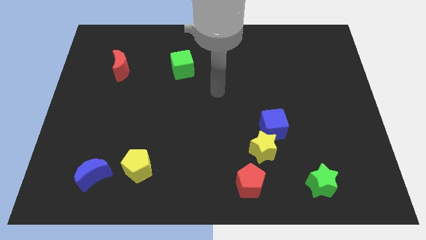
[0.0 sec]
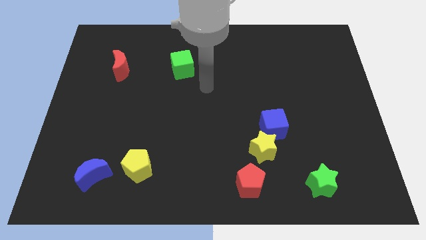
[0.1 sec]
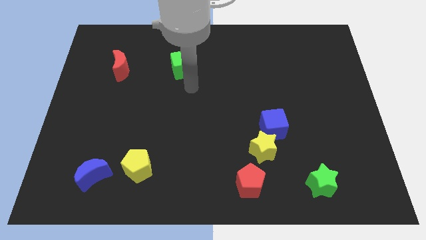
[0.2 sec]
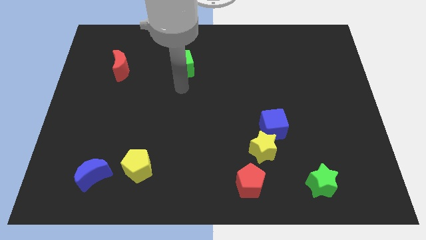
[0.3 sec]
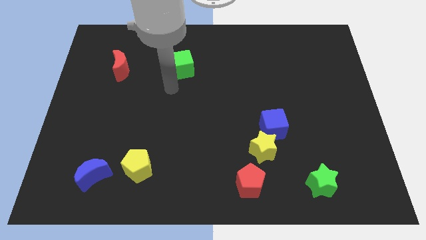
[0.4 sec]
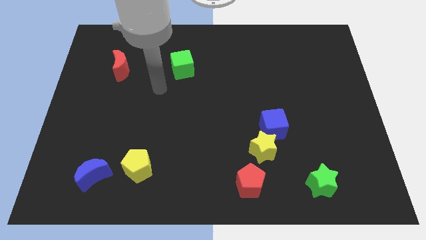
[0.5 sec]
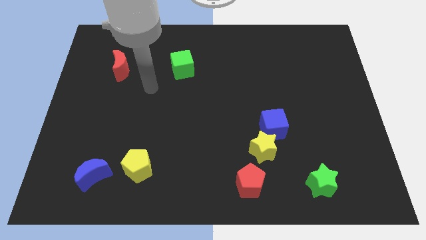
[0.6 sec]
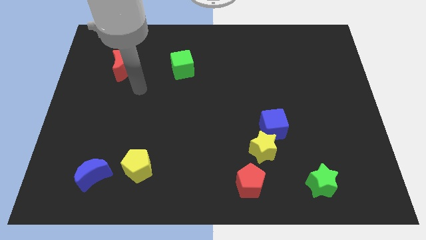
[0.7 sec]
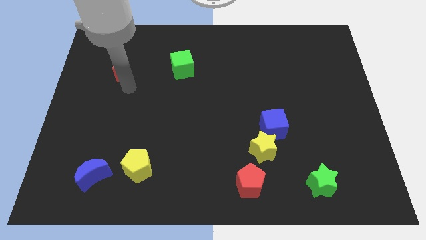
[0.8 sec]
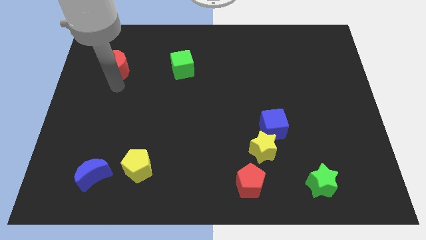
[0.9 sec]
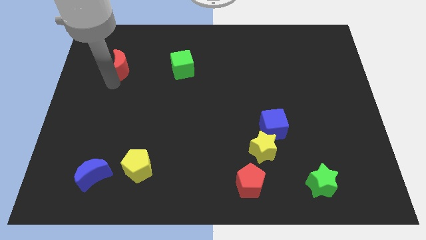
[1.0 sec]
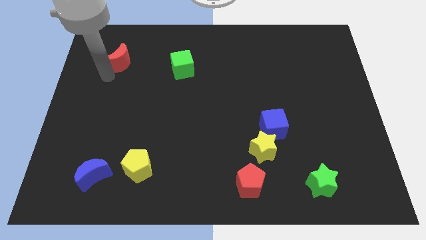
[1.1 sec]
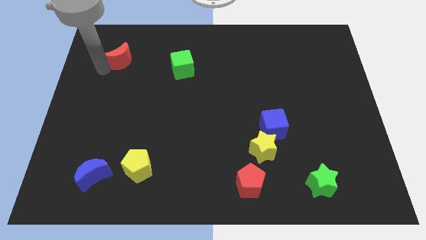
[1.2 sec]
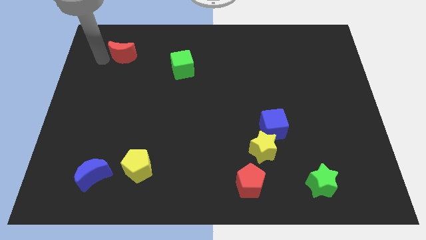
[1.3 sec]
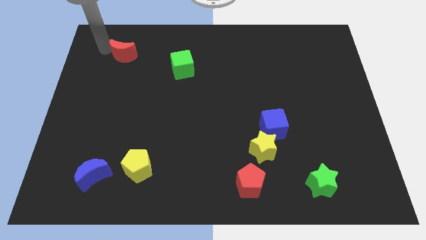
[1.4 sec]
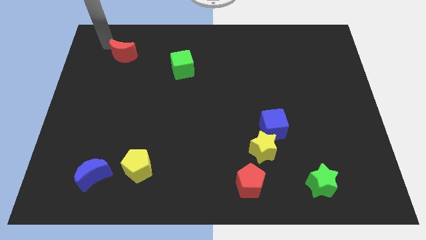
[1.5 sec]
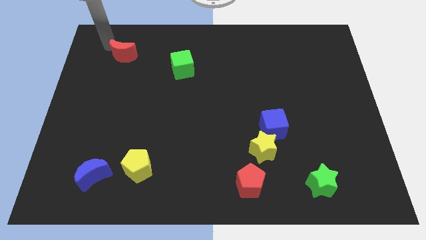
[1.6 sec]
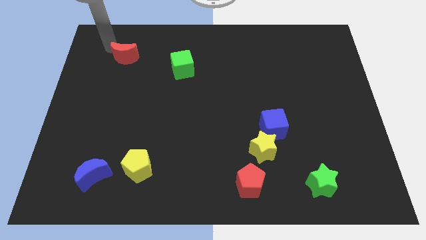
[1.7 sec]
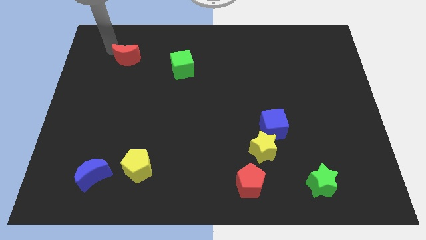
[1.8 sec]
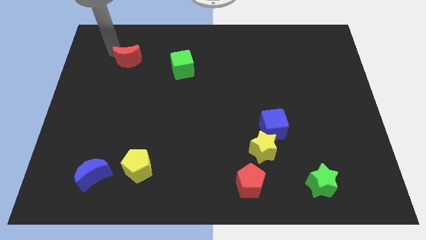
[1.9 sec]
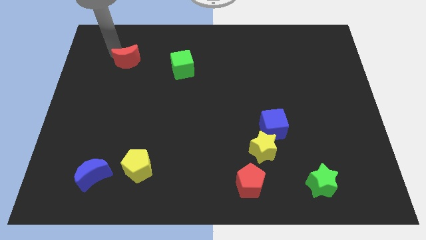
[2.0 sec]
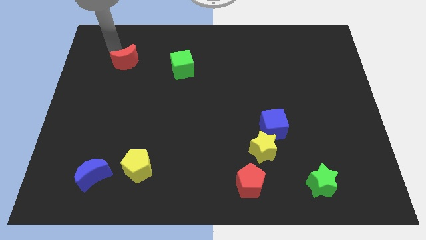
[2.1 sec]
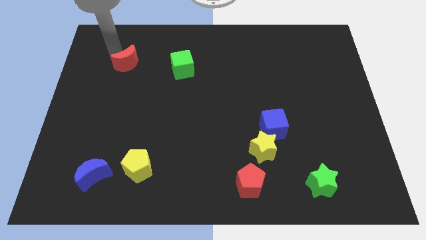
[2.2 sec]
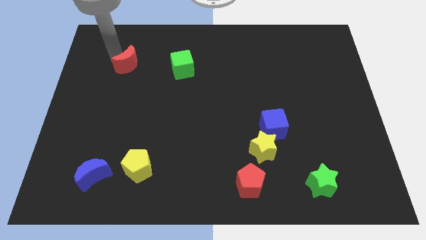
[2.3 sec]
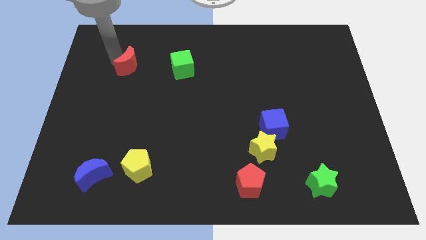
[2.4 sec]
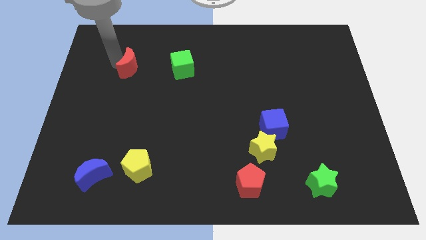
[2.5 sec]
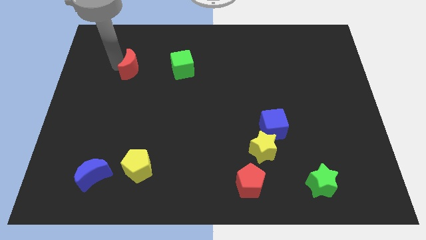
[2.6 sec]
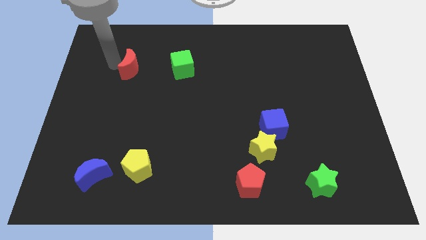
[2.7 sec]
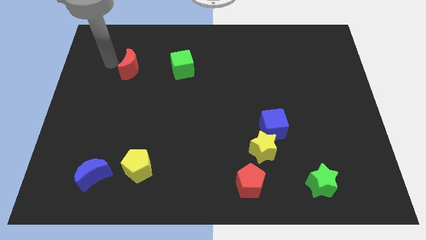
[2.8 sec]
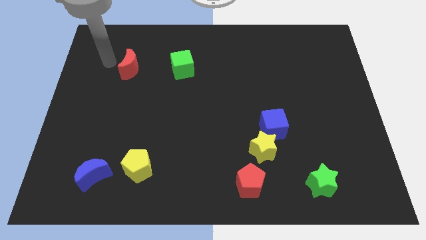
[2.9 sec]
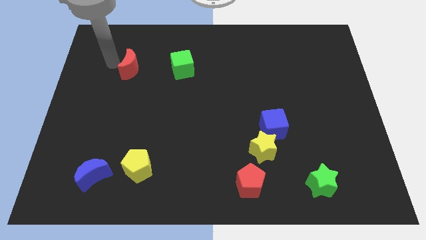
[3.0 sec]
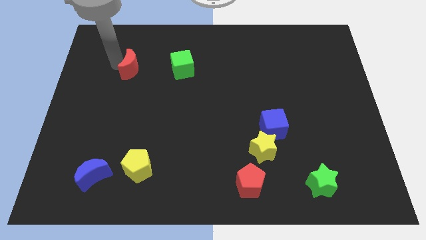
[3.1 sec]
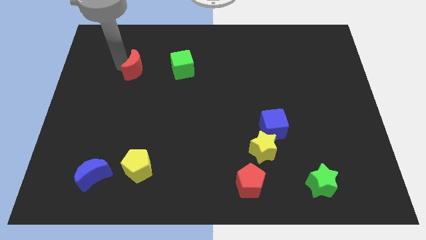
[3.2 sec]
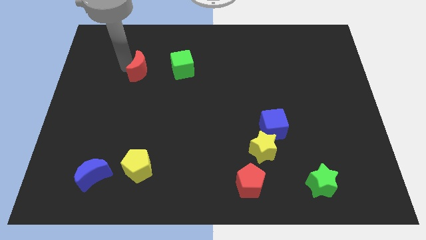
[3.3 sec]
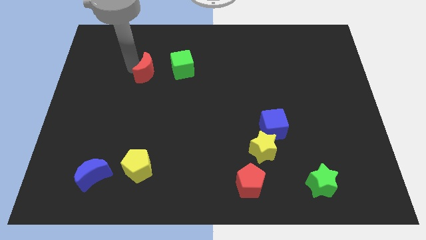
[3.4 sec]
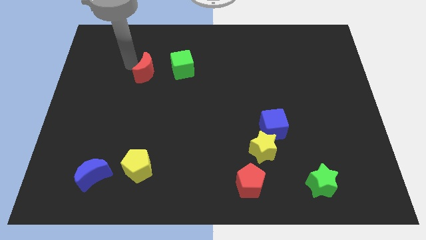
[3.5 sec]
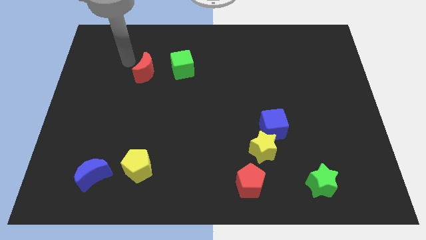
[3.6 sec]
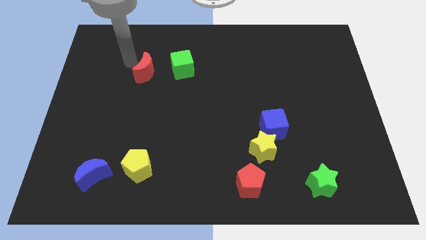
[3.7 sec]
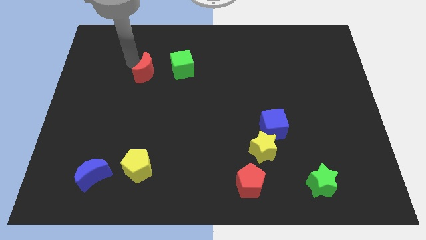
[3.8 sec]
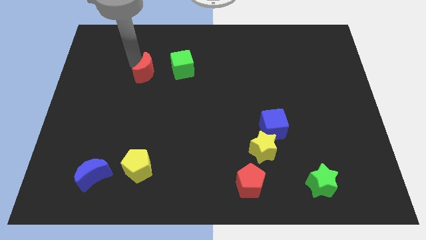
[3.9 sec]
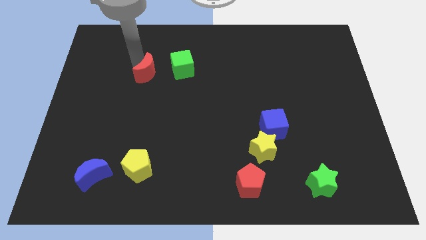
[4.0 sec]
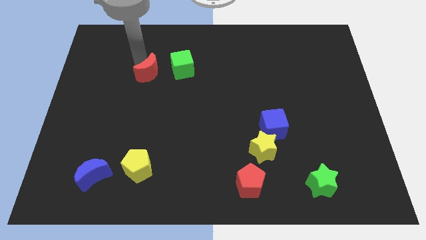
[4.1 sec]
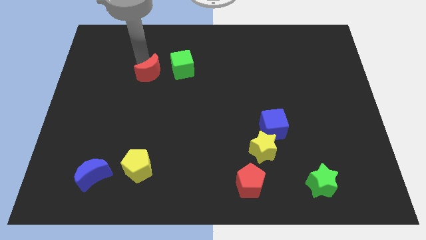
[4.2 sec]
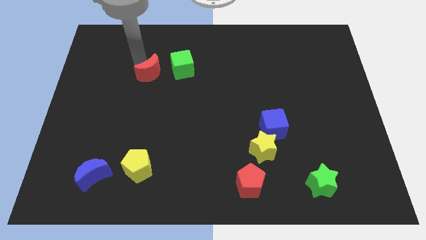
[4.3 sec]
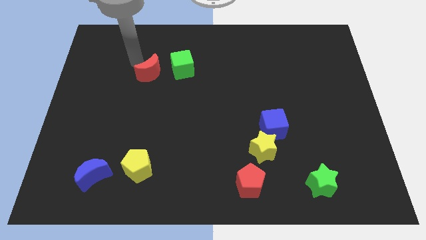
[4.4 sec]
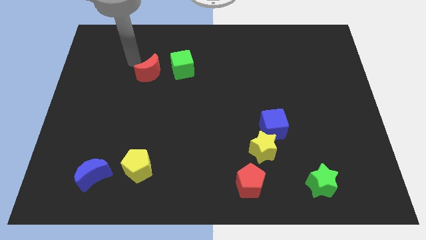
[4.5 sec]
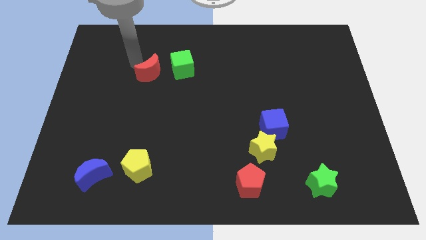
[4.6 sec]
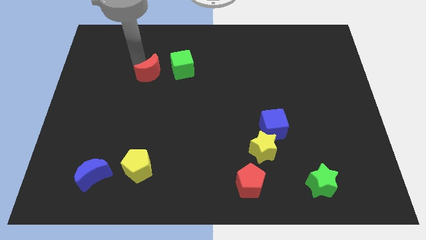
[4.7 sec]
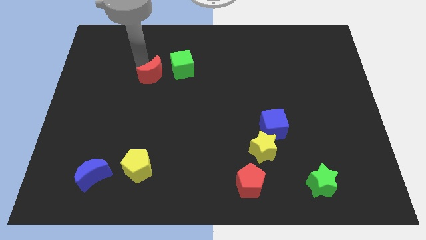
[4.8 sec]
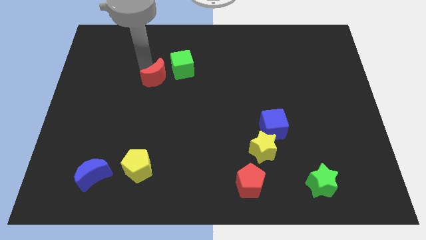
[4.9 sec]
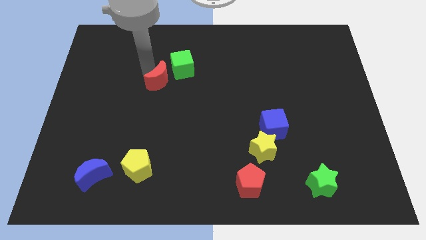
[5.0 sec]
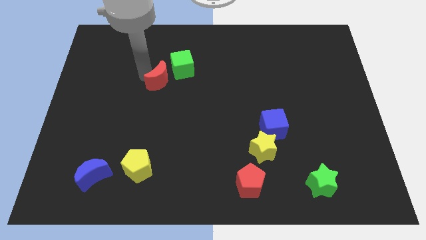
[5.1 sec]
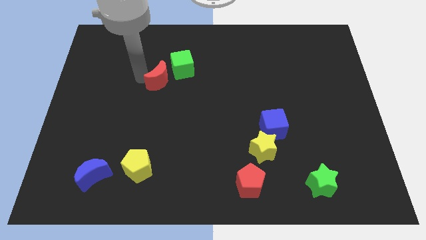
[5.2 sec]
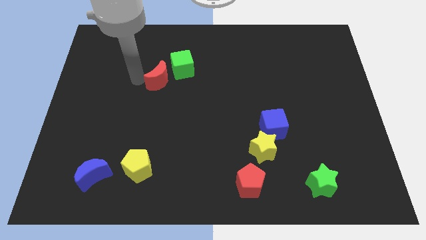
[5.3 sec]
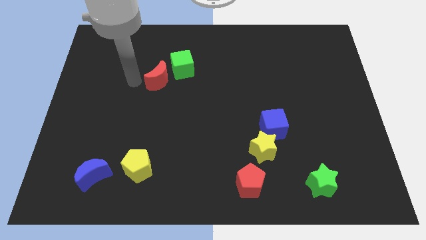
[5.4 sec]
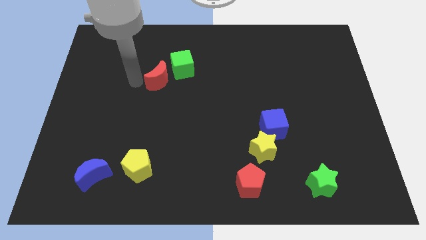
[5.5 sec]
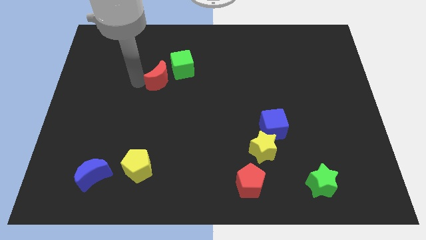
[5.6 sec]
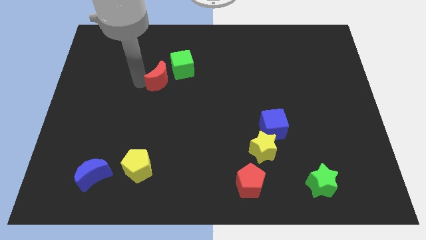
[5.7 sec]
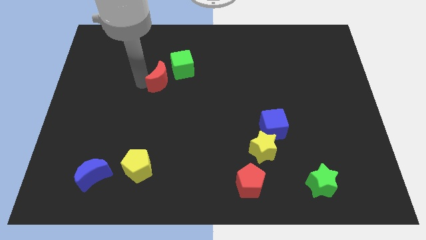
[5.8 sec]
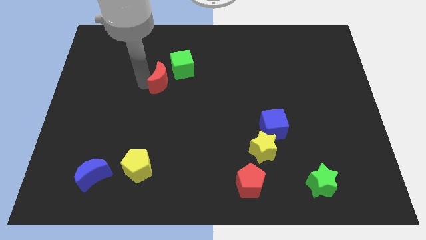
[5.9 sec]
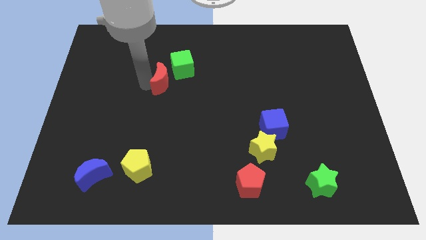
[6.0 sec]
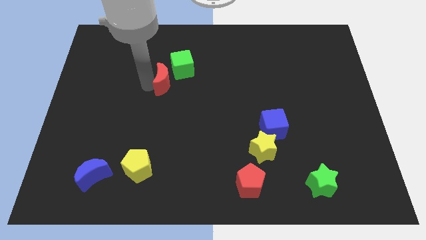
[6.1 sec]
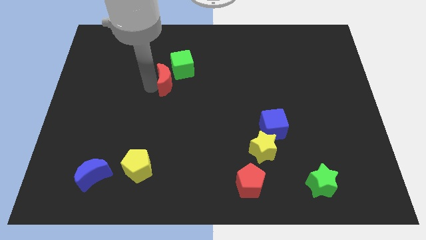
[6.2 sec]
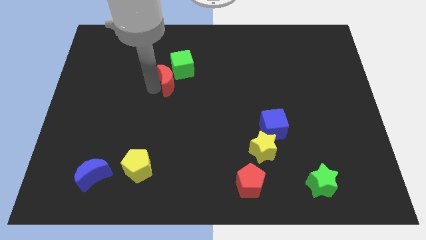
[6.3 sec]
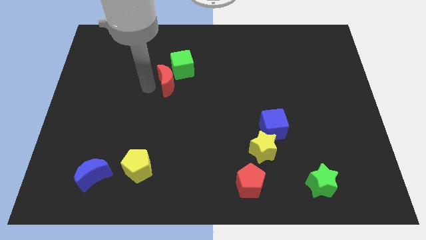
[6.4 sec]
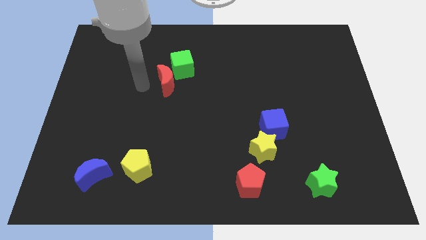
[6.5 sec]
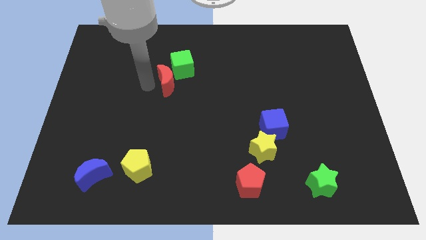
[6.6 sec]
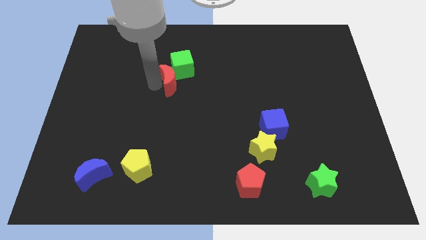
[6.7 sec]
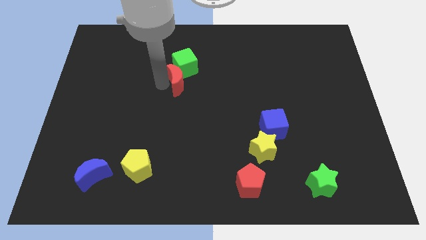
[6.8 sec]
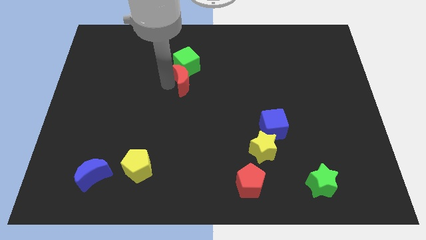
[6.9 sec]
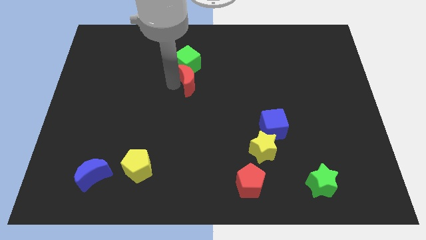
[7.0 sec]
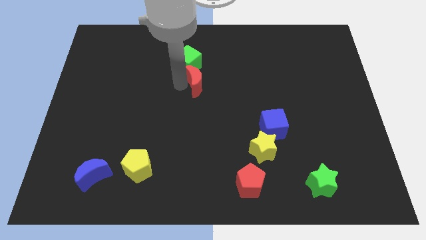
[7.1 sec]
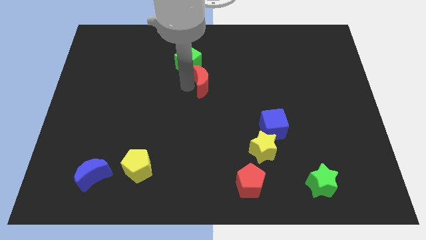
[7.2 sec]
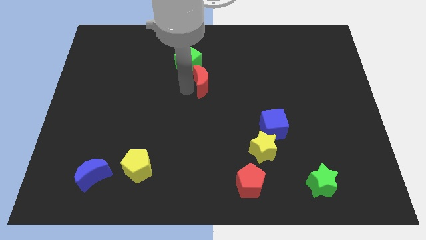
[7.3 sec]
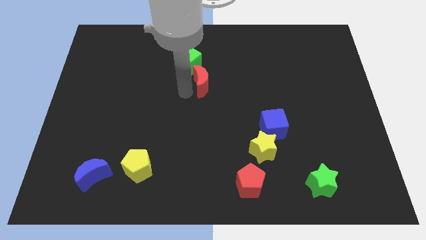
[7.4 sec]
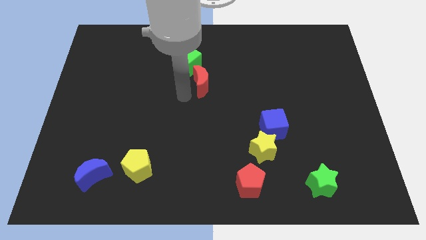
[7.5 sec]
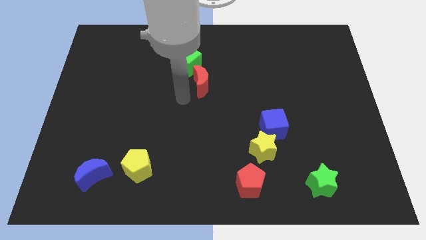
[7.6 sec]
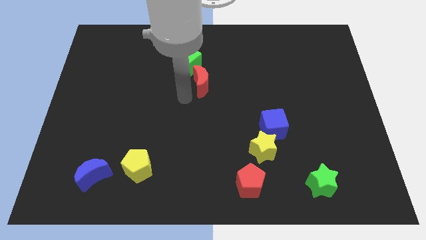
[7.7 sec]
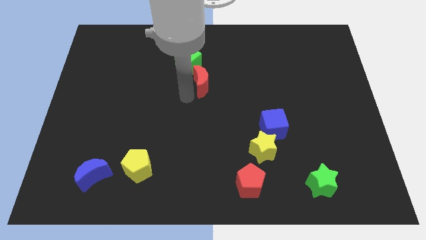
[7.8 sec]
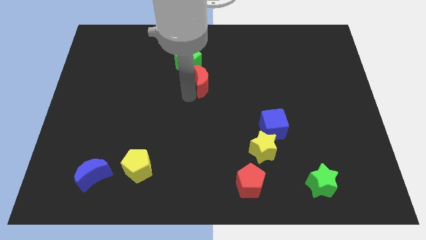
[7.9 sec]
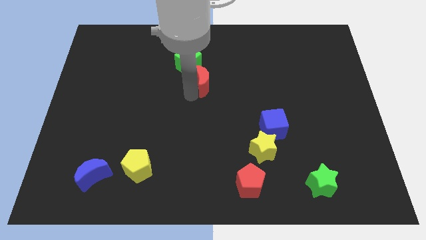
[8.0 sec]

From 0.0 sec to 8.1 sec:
move the red moon to the right
